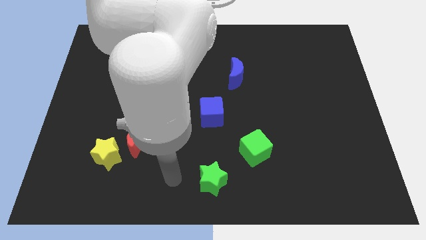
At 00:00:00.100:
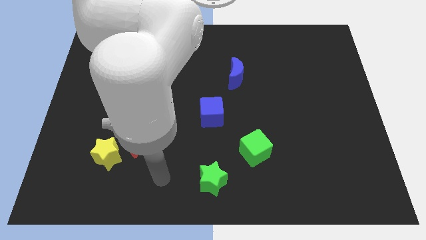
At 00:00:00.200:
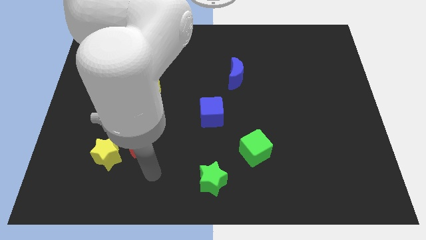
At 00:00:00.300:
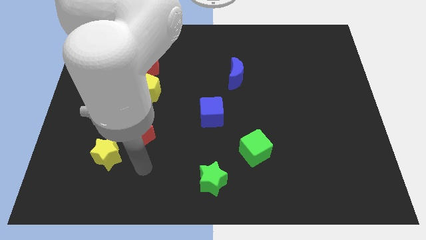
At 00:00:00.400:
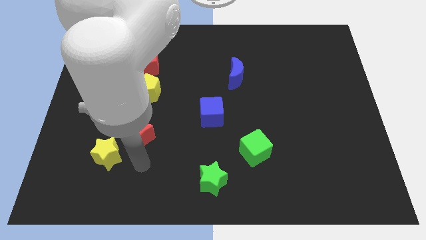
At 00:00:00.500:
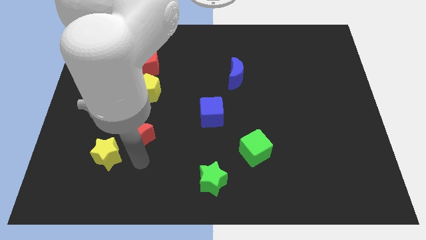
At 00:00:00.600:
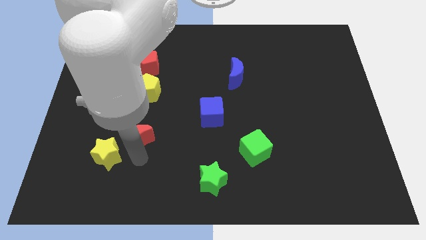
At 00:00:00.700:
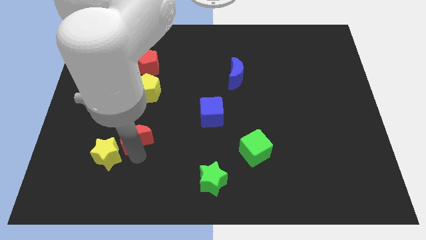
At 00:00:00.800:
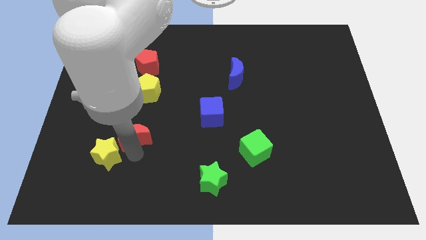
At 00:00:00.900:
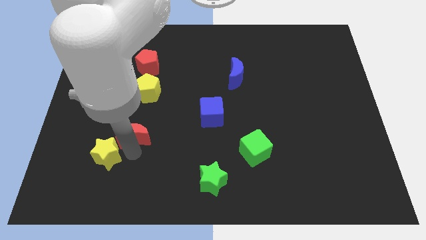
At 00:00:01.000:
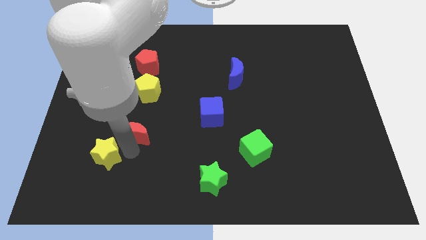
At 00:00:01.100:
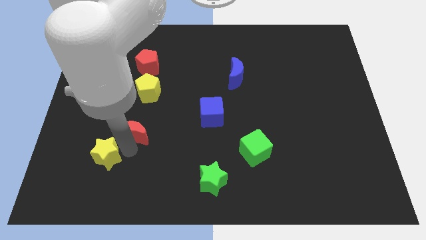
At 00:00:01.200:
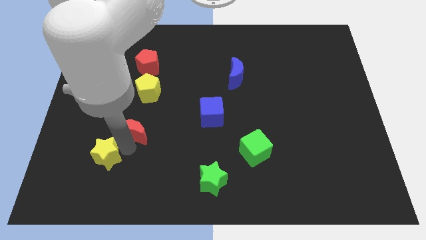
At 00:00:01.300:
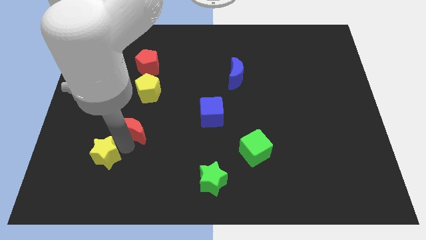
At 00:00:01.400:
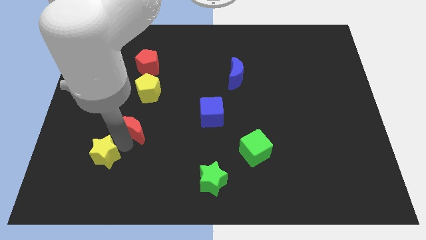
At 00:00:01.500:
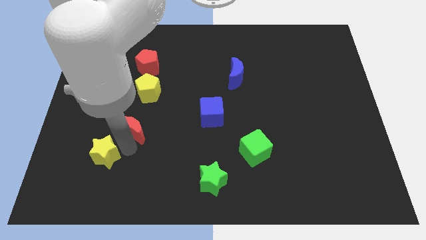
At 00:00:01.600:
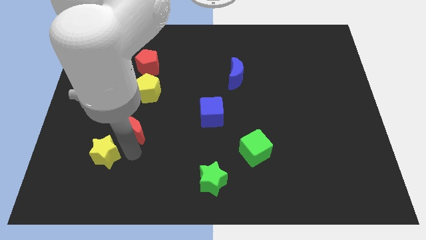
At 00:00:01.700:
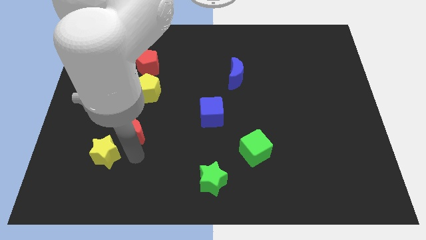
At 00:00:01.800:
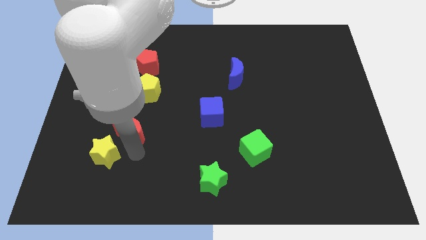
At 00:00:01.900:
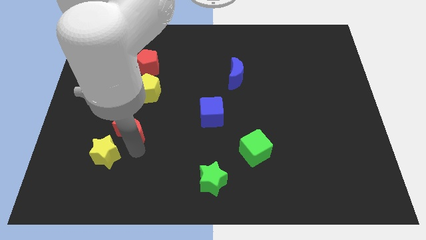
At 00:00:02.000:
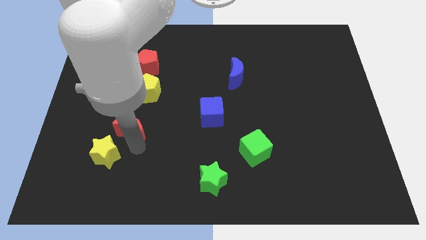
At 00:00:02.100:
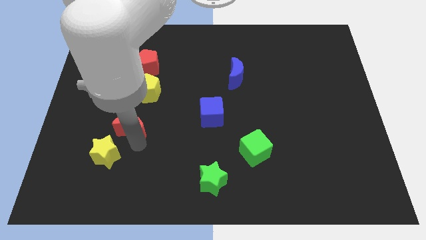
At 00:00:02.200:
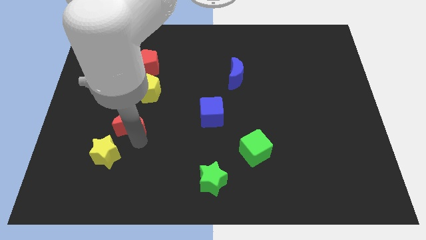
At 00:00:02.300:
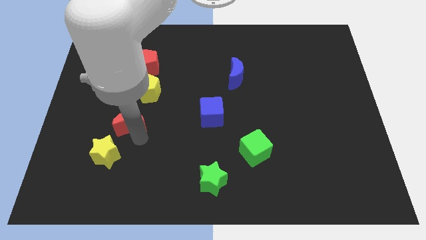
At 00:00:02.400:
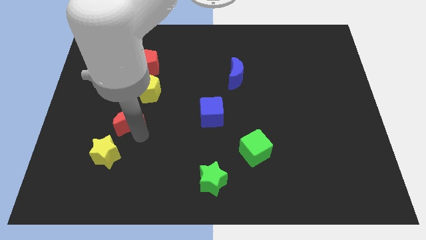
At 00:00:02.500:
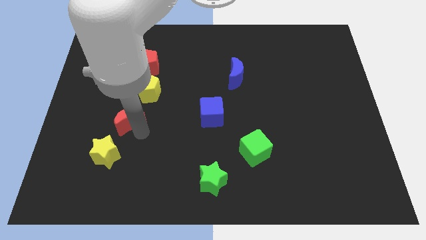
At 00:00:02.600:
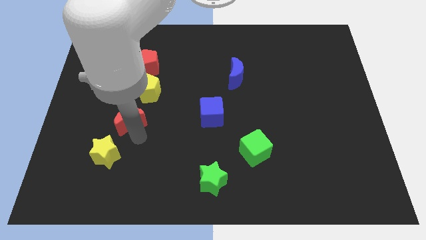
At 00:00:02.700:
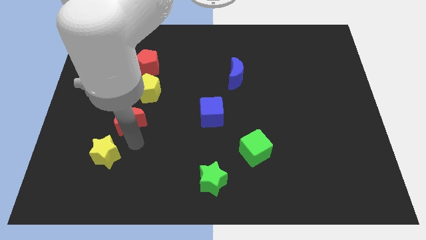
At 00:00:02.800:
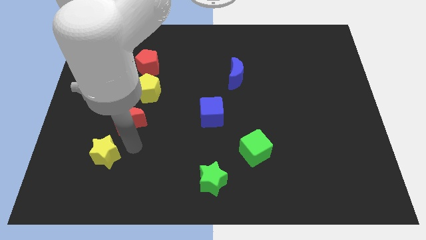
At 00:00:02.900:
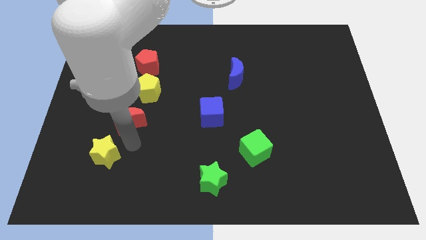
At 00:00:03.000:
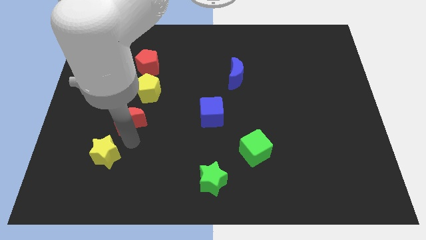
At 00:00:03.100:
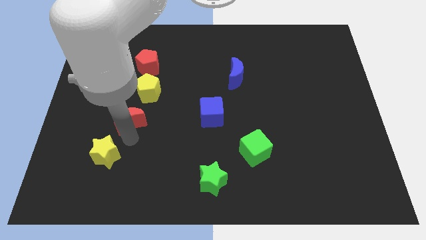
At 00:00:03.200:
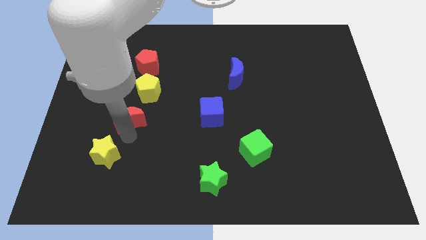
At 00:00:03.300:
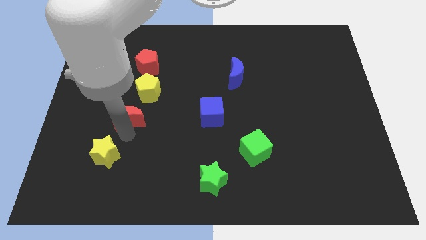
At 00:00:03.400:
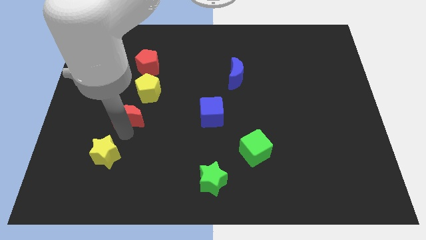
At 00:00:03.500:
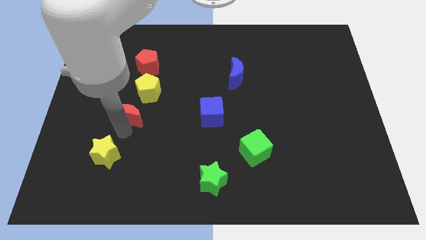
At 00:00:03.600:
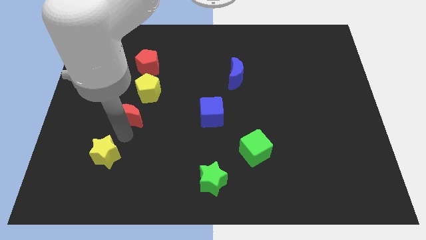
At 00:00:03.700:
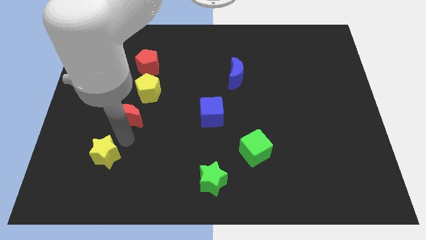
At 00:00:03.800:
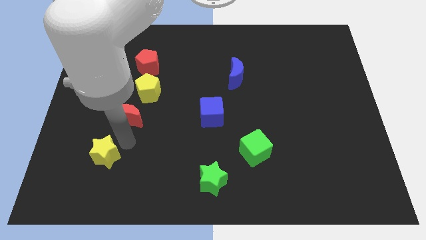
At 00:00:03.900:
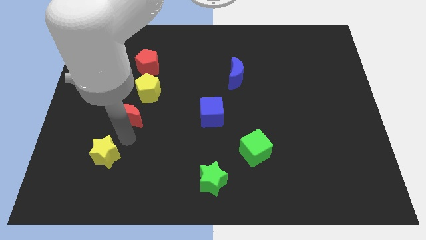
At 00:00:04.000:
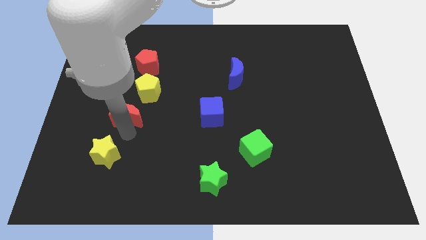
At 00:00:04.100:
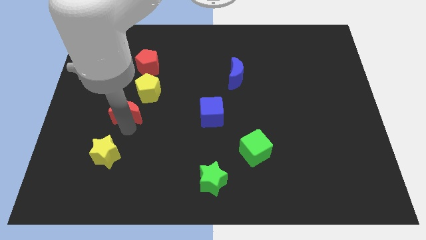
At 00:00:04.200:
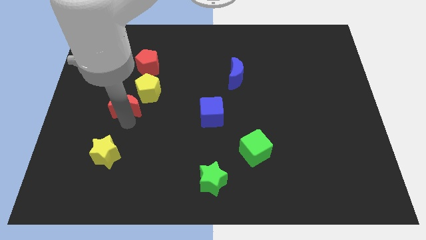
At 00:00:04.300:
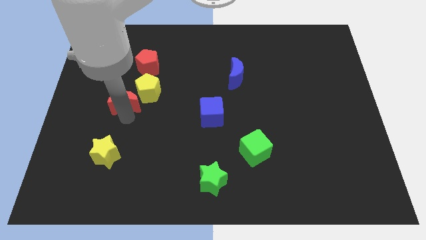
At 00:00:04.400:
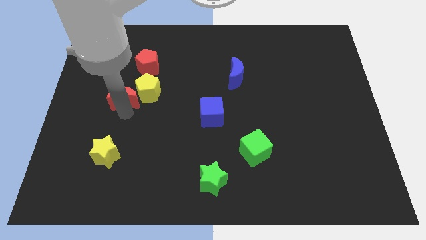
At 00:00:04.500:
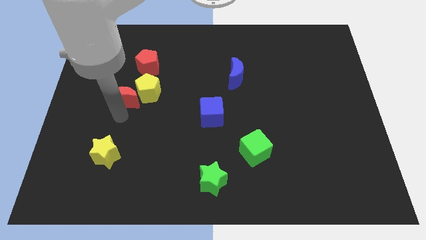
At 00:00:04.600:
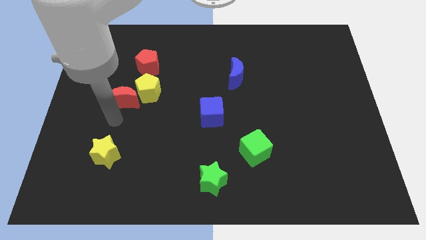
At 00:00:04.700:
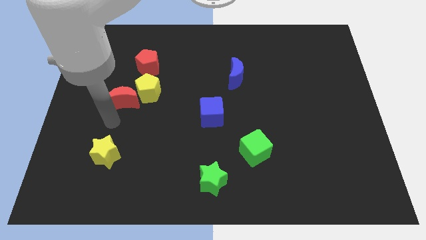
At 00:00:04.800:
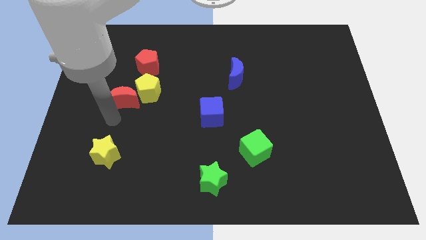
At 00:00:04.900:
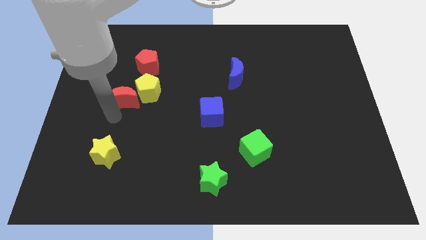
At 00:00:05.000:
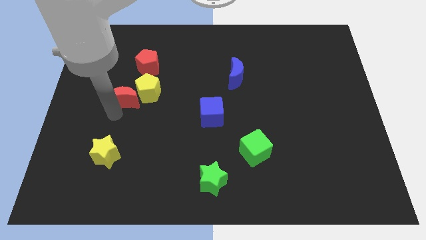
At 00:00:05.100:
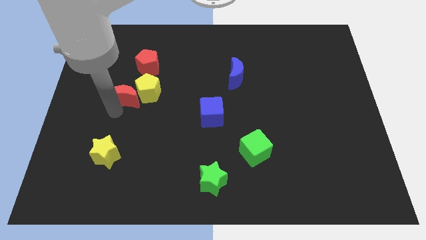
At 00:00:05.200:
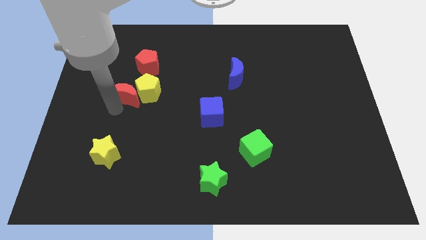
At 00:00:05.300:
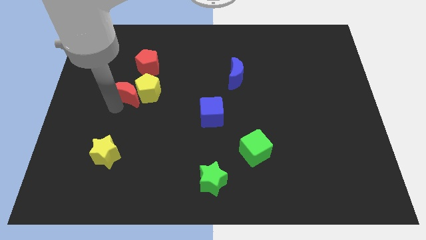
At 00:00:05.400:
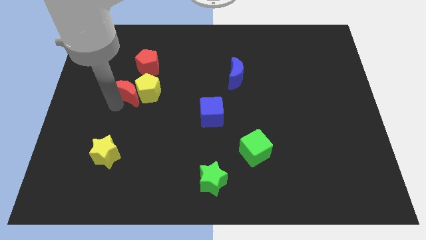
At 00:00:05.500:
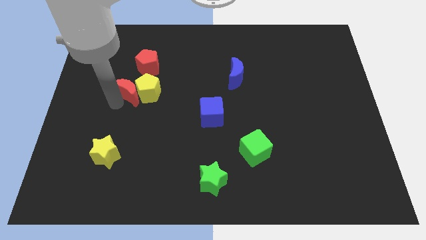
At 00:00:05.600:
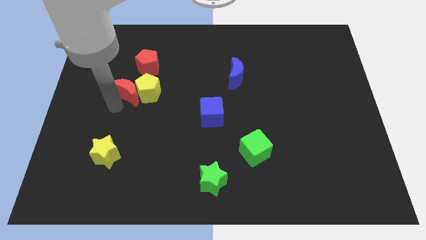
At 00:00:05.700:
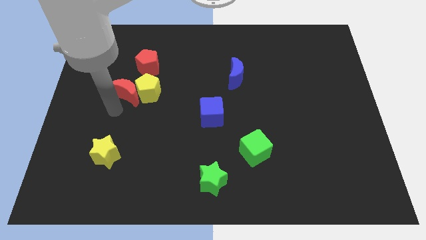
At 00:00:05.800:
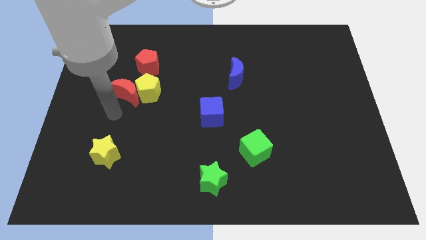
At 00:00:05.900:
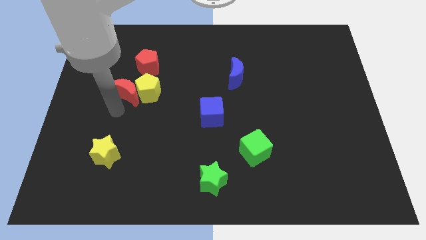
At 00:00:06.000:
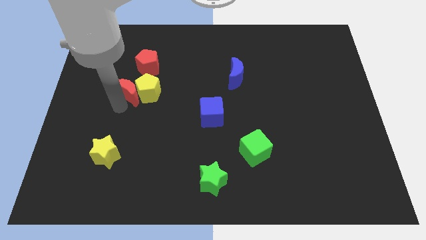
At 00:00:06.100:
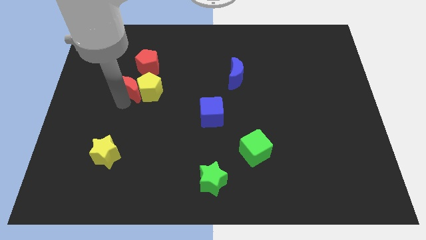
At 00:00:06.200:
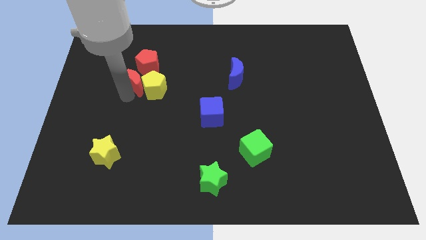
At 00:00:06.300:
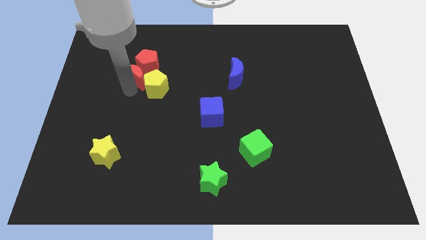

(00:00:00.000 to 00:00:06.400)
push the red moon close to the red pentagon
